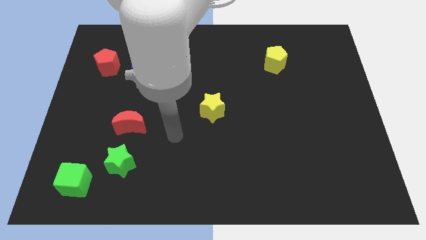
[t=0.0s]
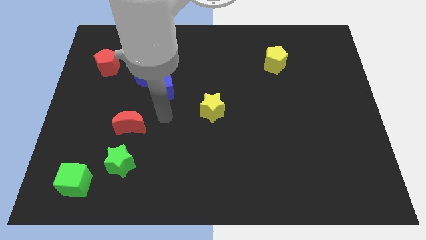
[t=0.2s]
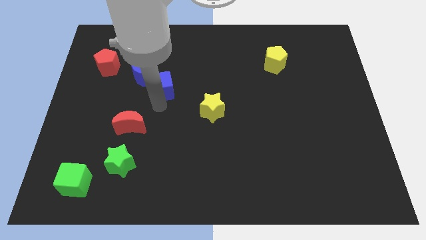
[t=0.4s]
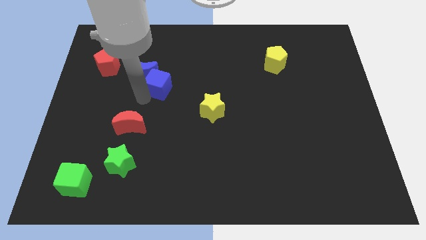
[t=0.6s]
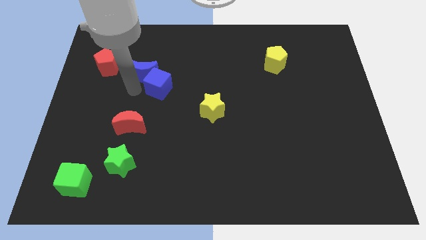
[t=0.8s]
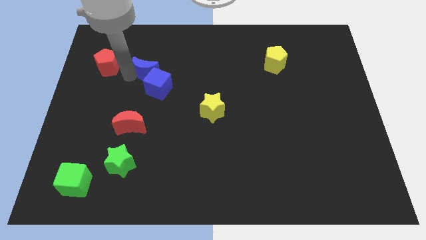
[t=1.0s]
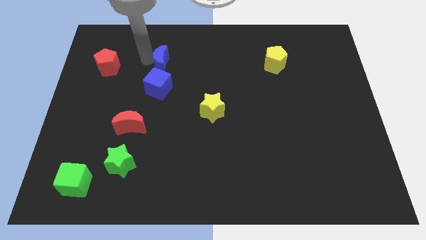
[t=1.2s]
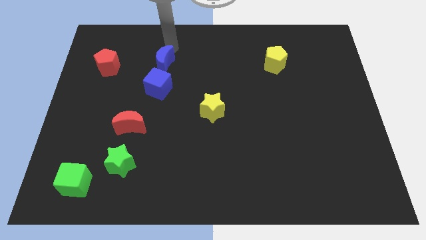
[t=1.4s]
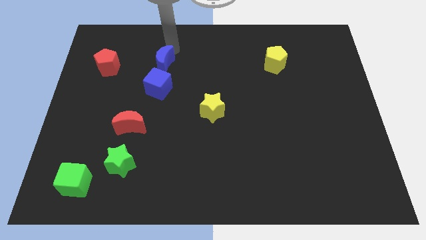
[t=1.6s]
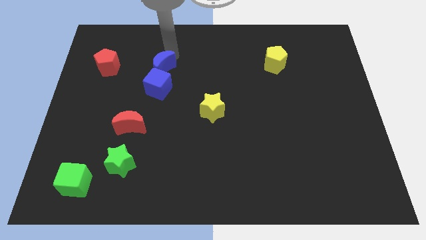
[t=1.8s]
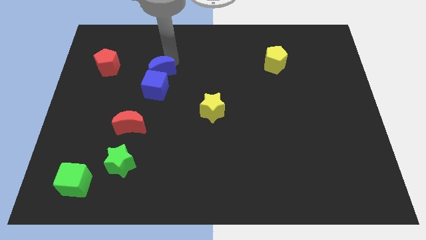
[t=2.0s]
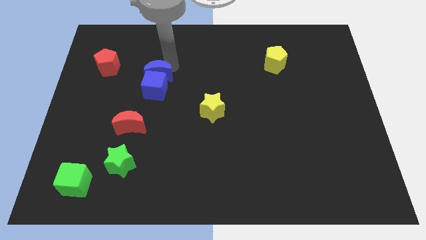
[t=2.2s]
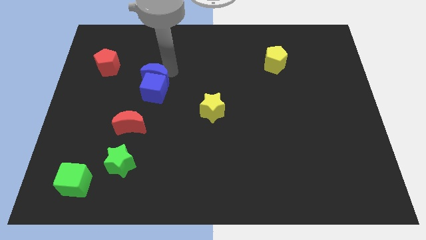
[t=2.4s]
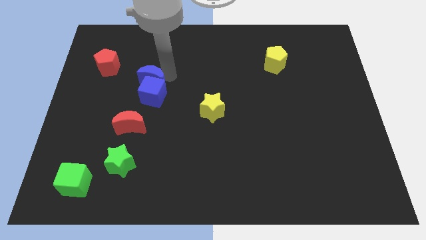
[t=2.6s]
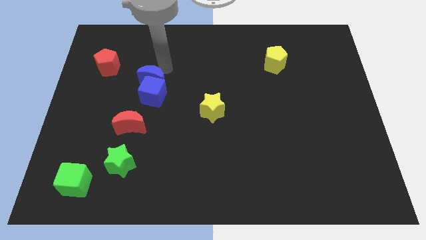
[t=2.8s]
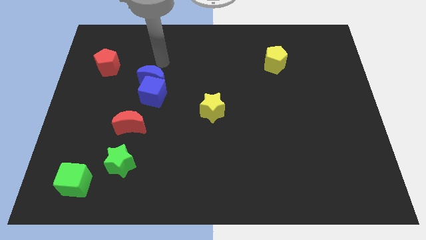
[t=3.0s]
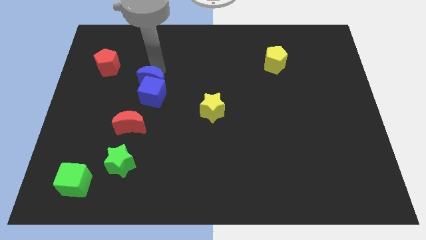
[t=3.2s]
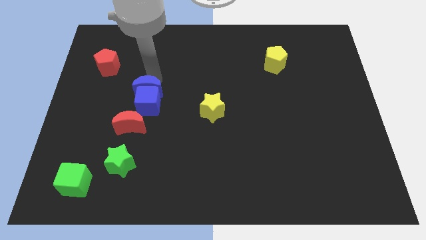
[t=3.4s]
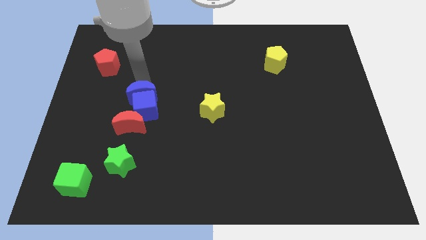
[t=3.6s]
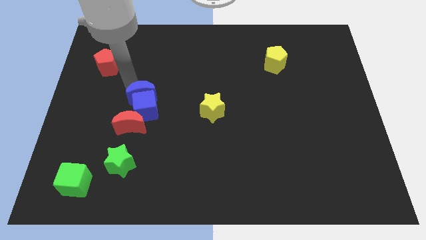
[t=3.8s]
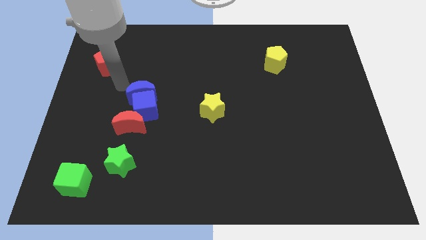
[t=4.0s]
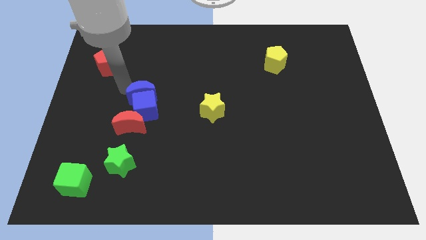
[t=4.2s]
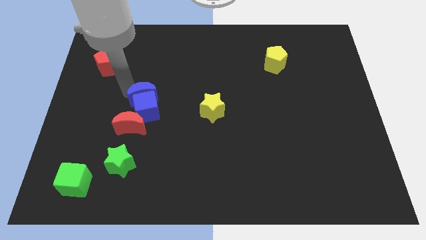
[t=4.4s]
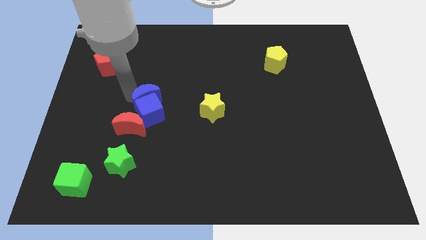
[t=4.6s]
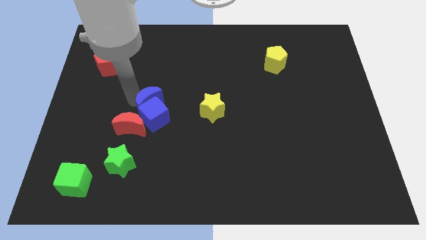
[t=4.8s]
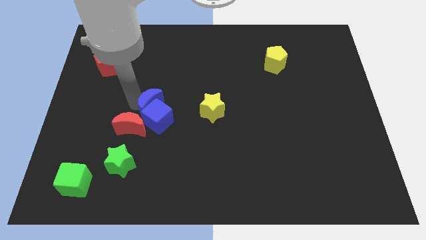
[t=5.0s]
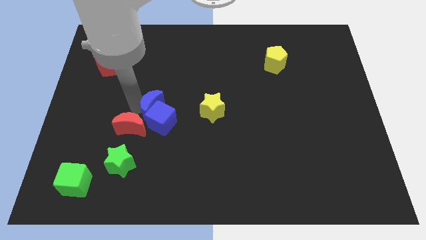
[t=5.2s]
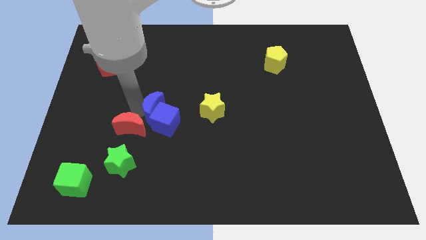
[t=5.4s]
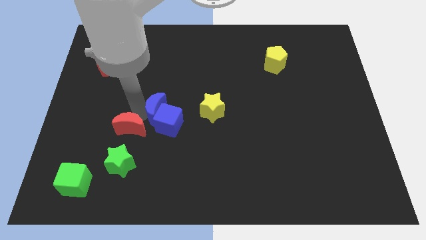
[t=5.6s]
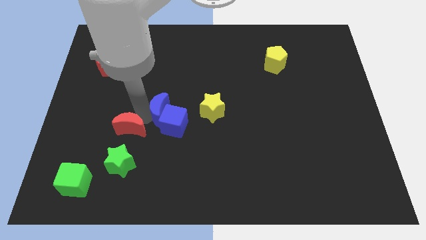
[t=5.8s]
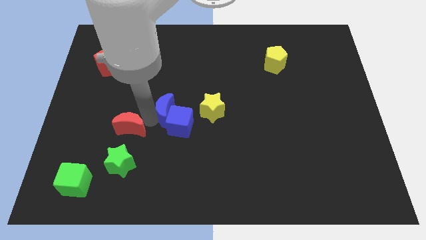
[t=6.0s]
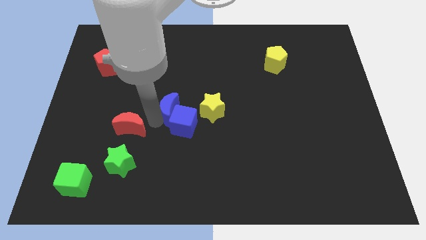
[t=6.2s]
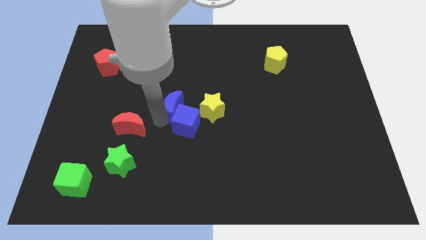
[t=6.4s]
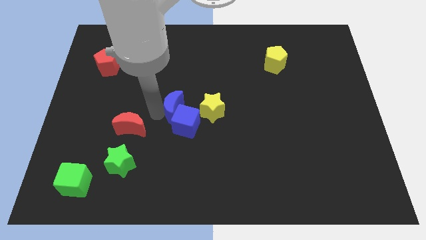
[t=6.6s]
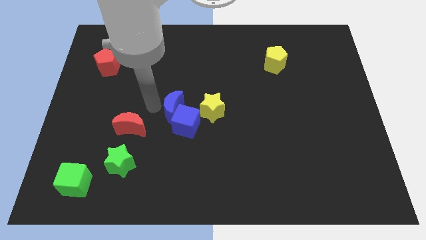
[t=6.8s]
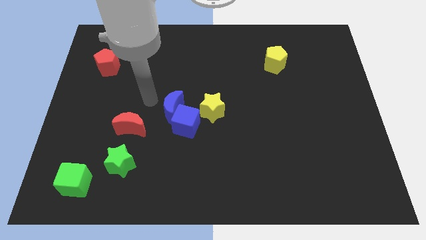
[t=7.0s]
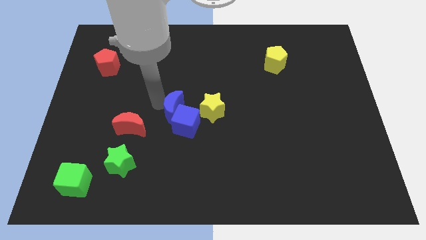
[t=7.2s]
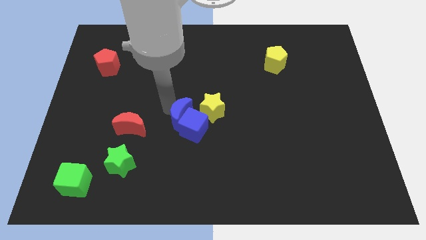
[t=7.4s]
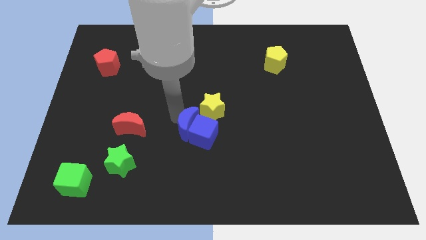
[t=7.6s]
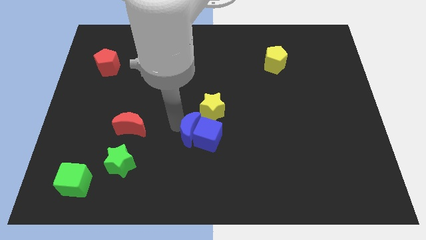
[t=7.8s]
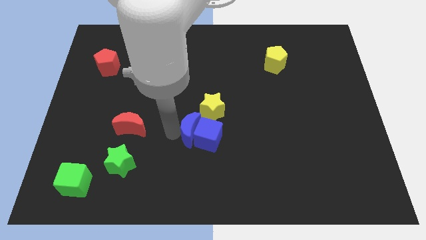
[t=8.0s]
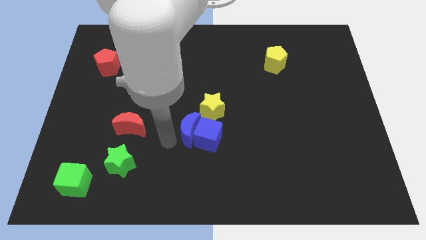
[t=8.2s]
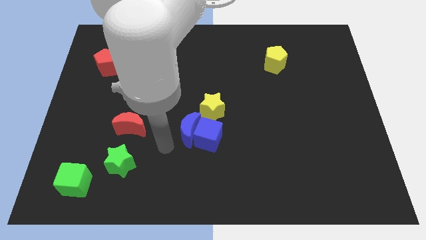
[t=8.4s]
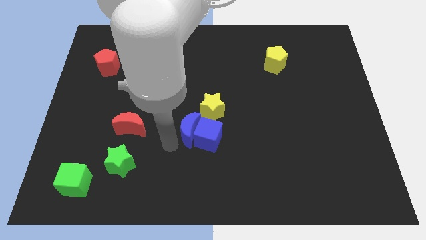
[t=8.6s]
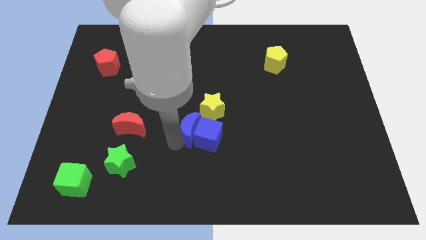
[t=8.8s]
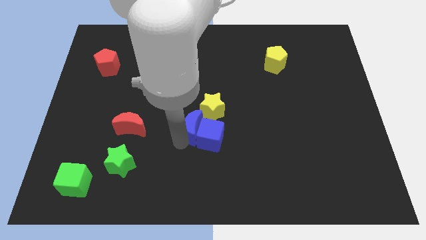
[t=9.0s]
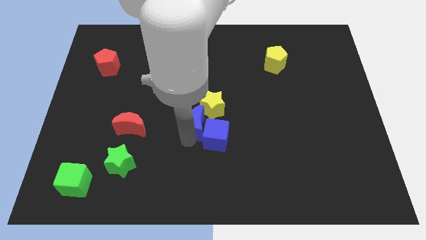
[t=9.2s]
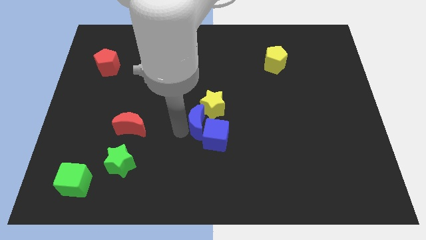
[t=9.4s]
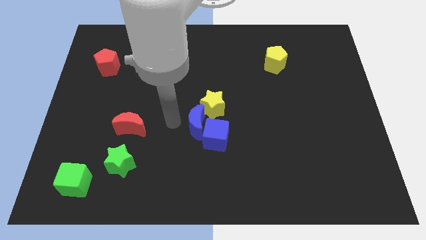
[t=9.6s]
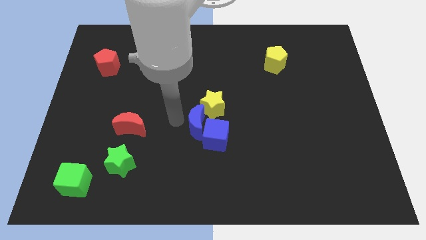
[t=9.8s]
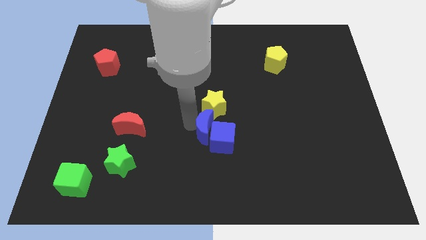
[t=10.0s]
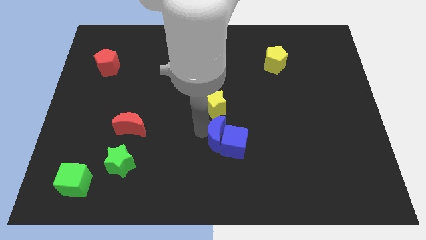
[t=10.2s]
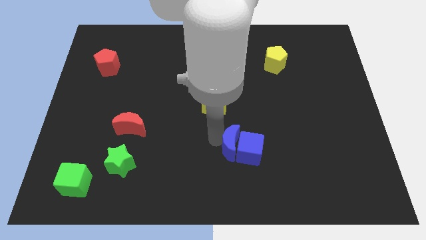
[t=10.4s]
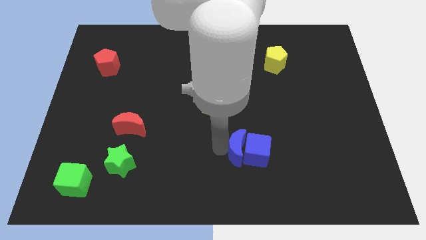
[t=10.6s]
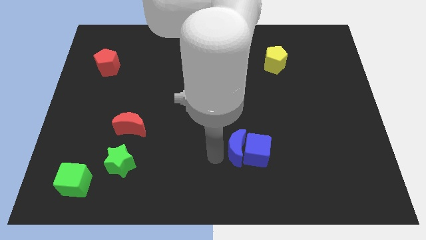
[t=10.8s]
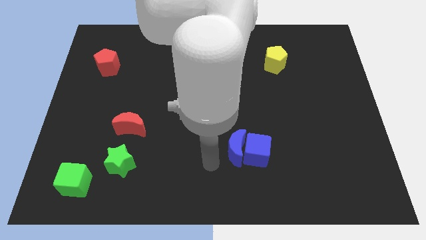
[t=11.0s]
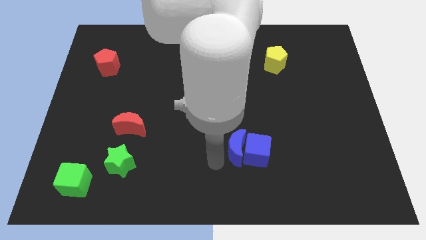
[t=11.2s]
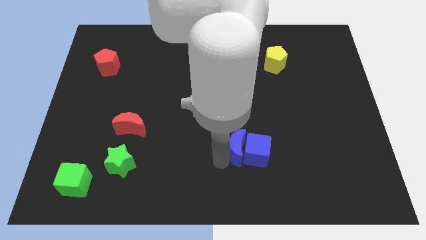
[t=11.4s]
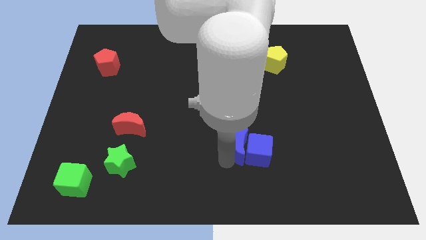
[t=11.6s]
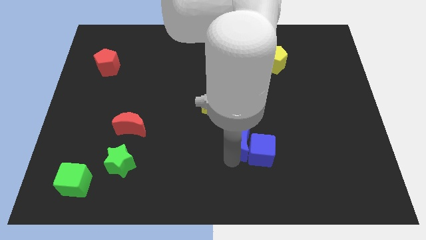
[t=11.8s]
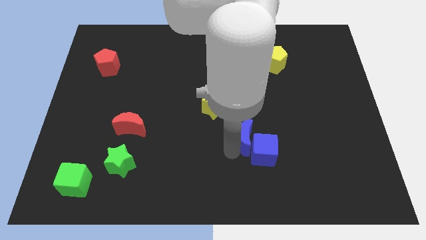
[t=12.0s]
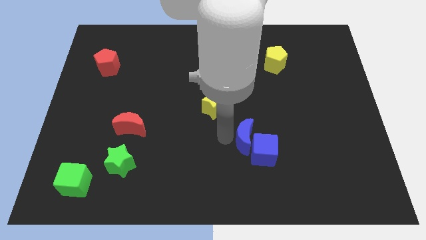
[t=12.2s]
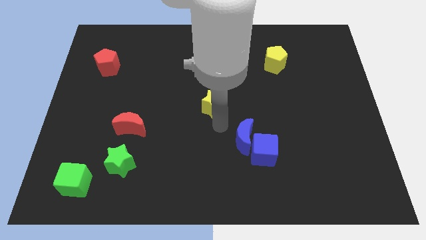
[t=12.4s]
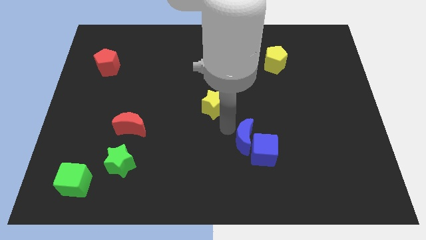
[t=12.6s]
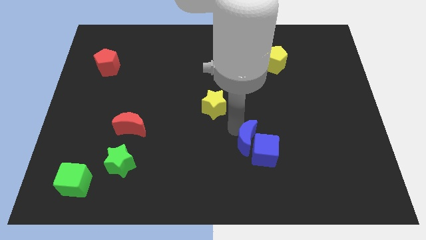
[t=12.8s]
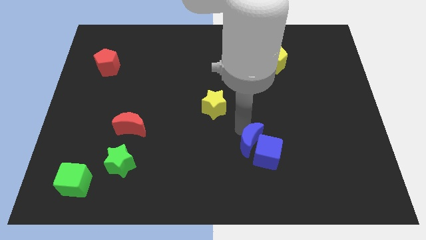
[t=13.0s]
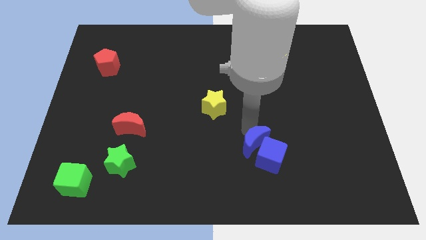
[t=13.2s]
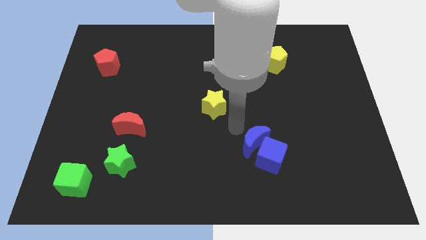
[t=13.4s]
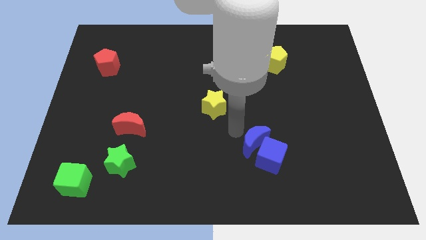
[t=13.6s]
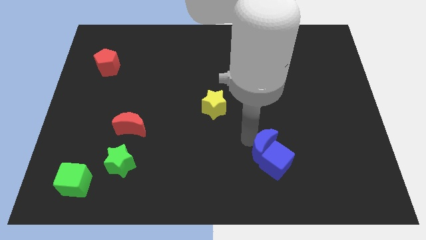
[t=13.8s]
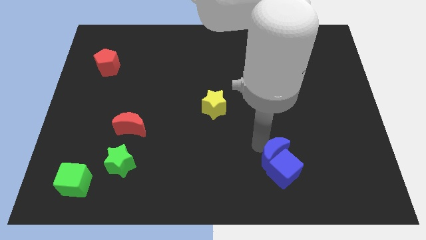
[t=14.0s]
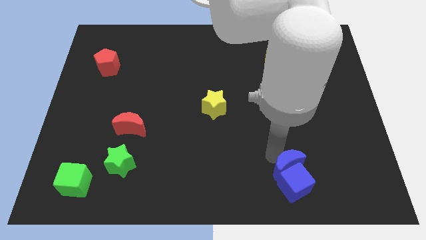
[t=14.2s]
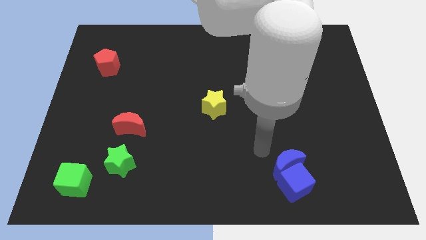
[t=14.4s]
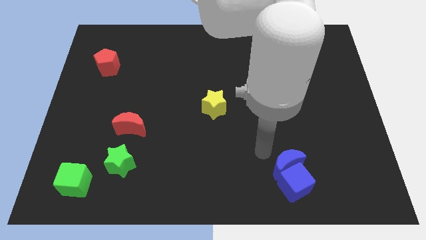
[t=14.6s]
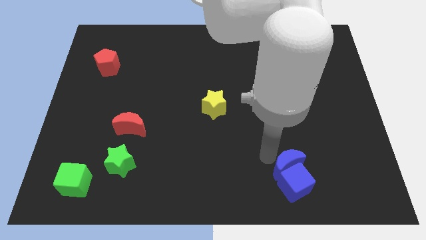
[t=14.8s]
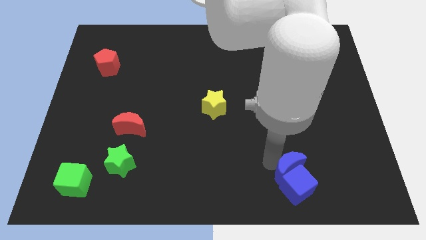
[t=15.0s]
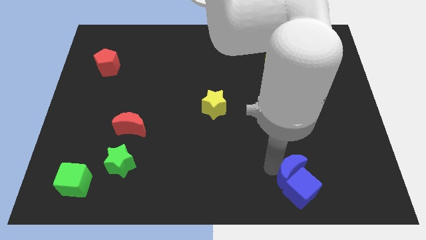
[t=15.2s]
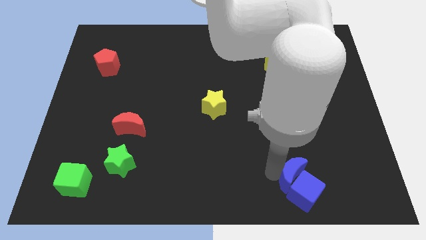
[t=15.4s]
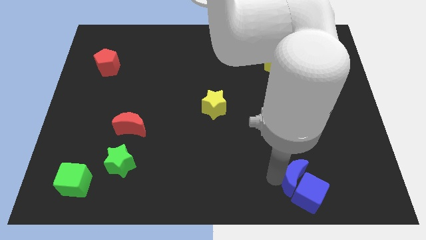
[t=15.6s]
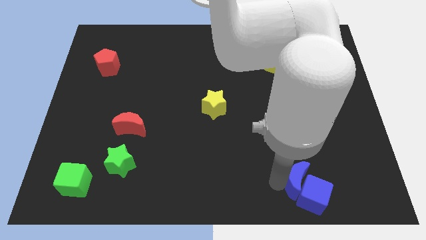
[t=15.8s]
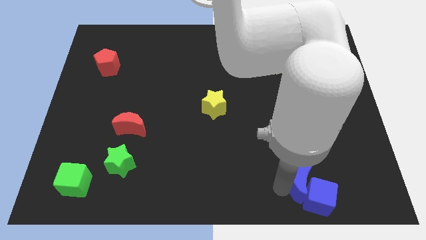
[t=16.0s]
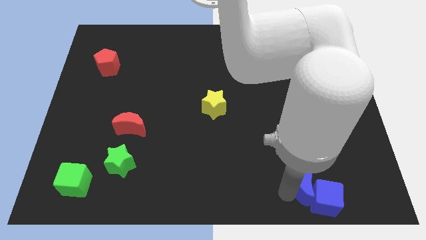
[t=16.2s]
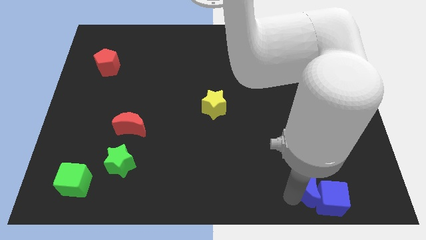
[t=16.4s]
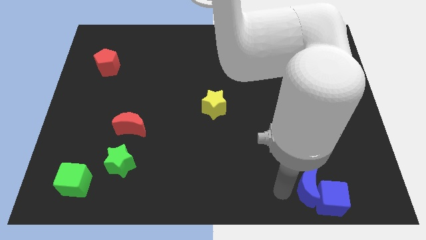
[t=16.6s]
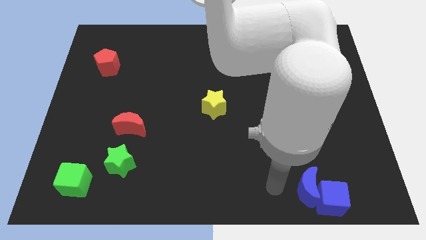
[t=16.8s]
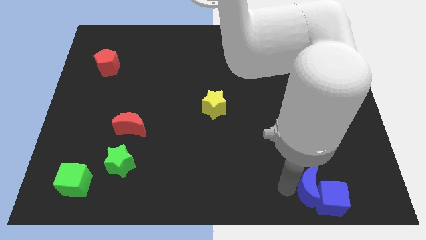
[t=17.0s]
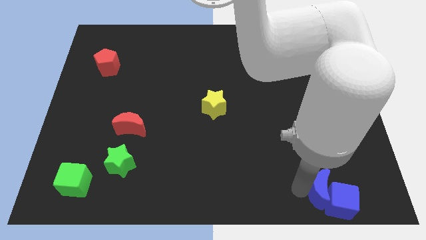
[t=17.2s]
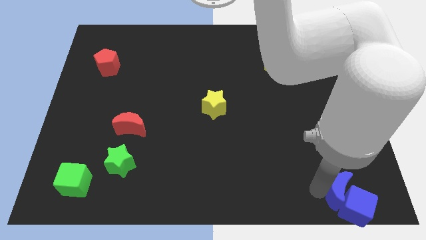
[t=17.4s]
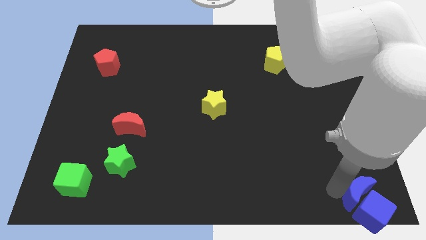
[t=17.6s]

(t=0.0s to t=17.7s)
push the blue moon to the bottom right
